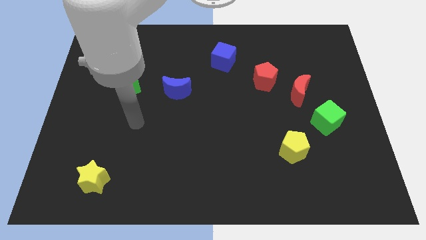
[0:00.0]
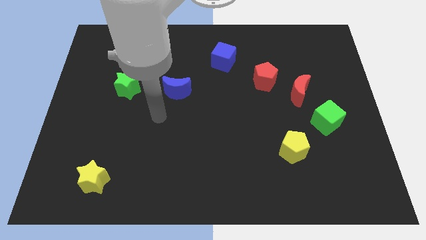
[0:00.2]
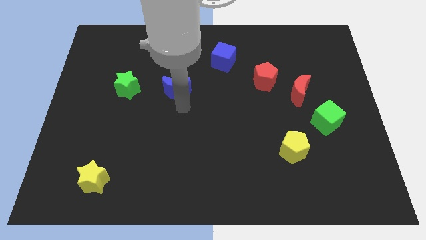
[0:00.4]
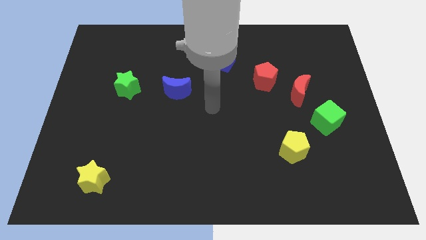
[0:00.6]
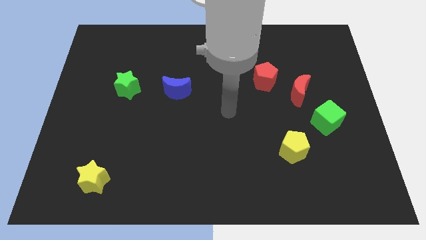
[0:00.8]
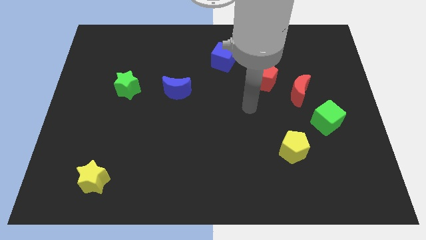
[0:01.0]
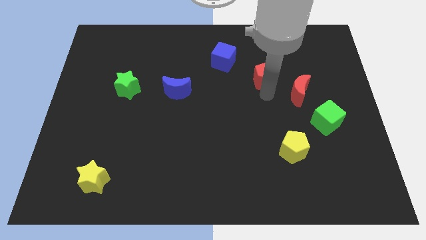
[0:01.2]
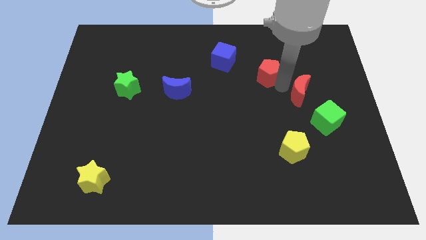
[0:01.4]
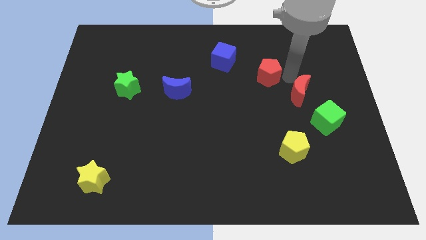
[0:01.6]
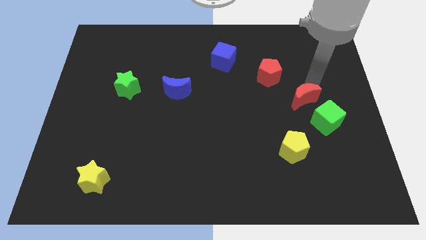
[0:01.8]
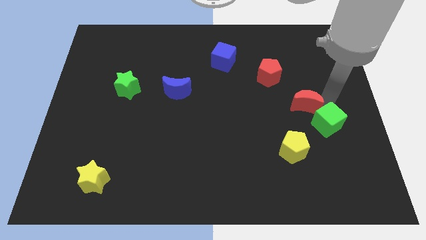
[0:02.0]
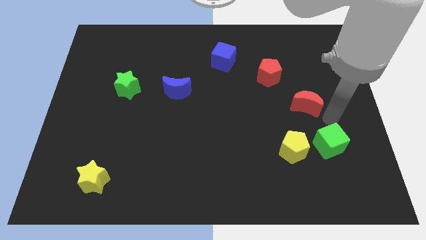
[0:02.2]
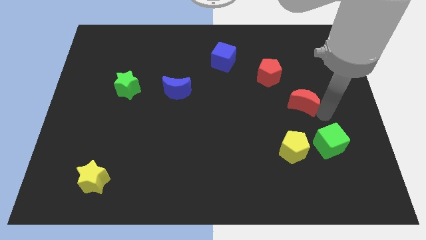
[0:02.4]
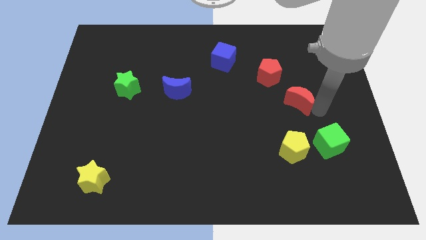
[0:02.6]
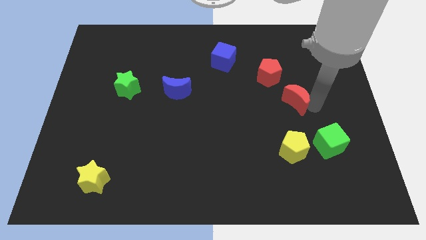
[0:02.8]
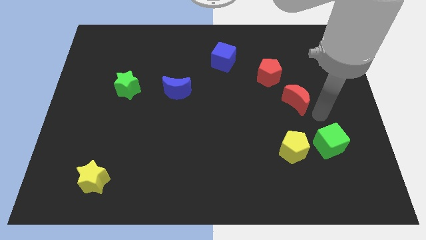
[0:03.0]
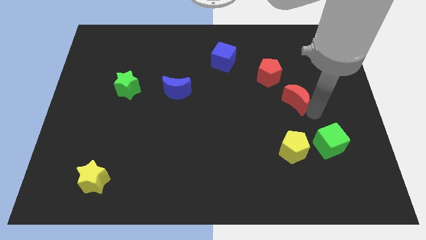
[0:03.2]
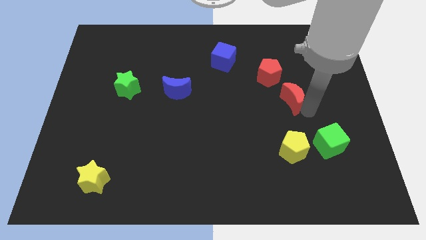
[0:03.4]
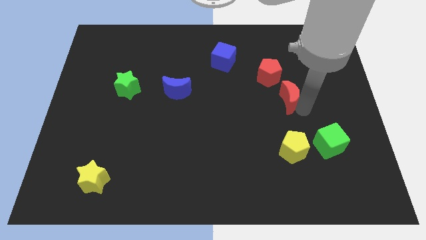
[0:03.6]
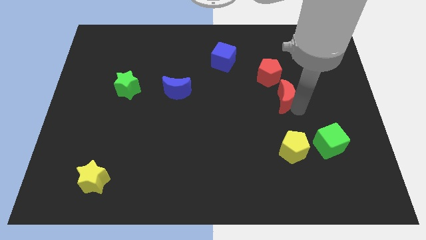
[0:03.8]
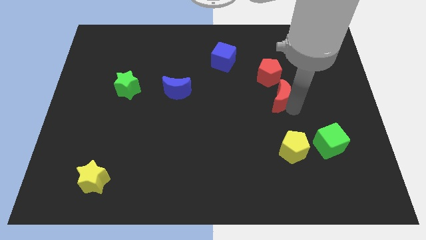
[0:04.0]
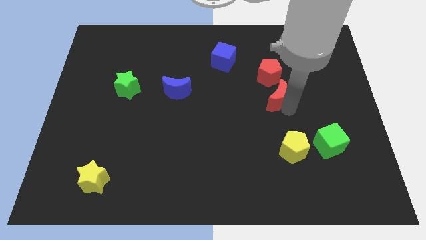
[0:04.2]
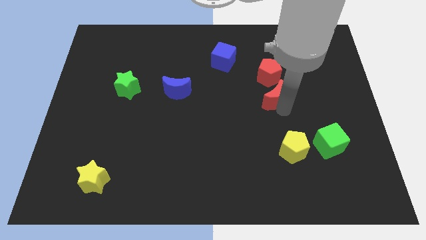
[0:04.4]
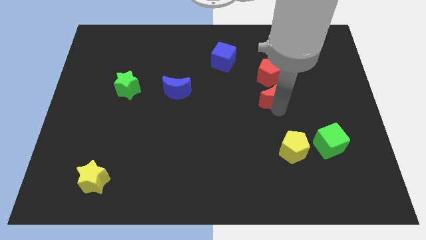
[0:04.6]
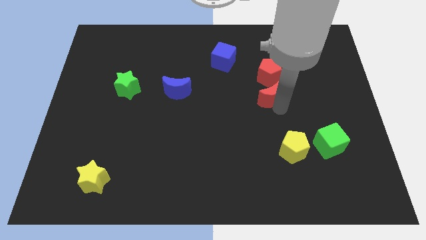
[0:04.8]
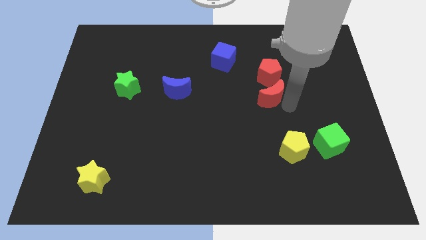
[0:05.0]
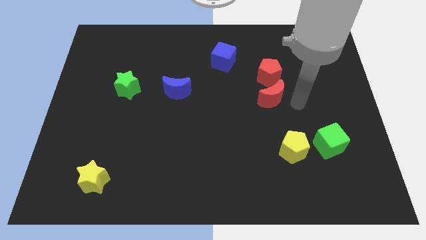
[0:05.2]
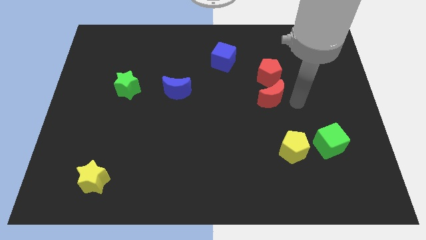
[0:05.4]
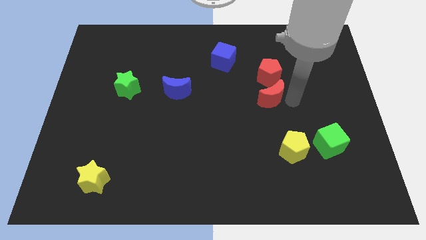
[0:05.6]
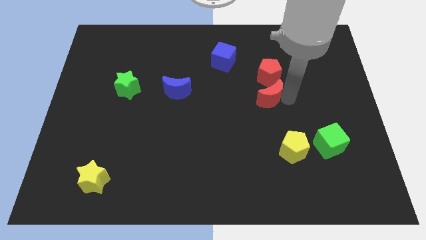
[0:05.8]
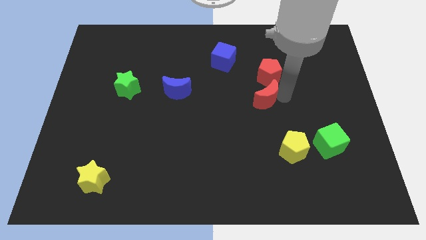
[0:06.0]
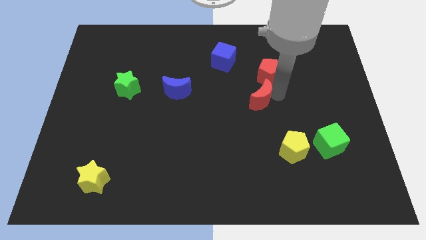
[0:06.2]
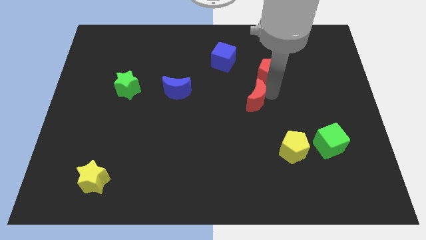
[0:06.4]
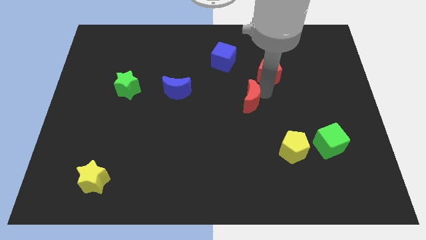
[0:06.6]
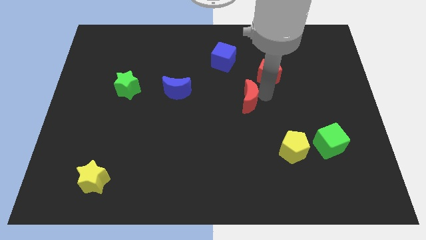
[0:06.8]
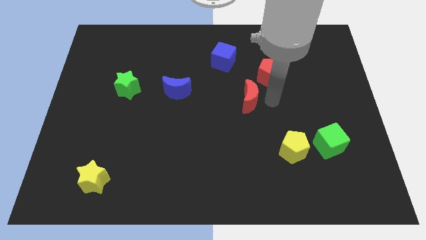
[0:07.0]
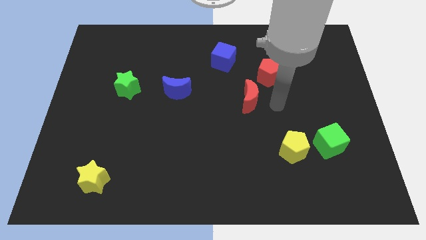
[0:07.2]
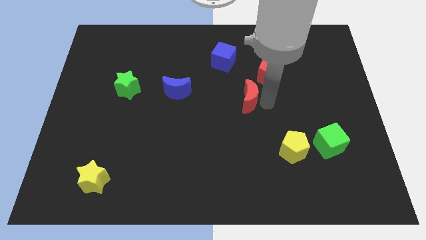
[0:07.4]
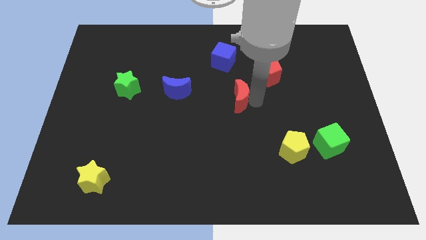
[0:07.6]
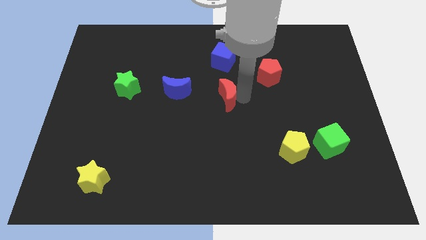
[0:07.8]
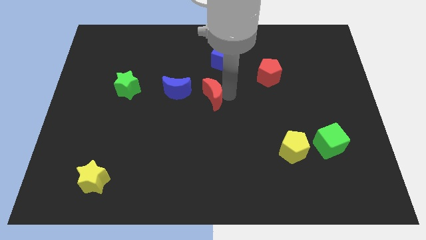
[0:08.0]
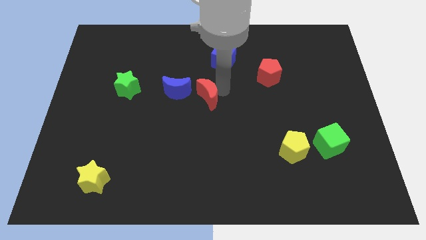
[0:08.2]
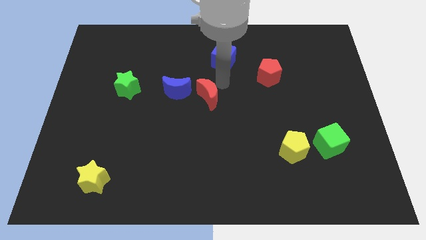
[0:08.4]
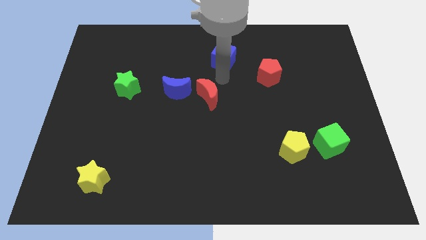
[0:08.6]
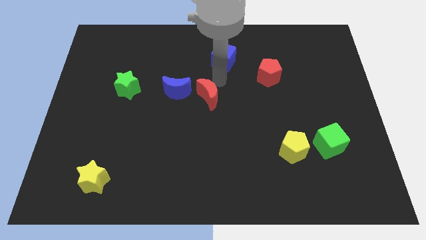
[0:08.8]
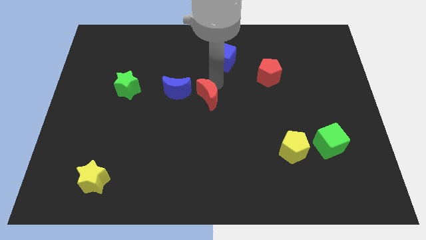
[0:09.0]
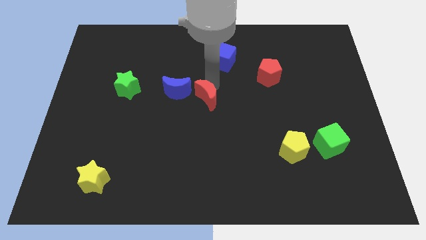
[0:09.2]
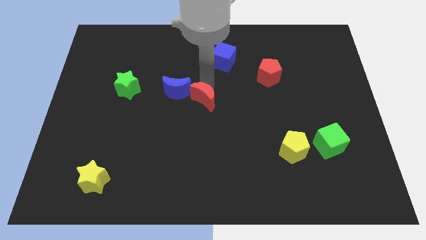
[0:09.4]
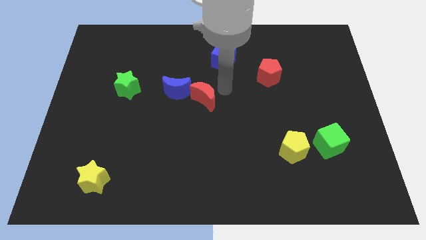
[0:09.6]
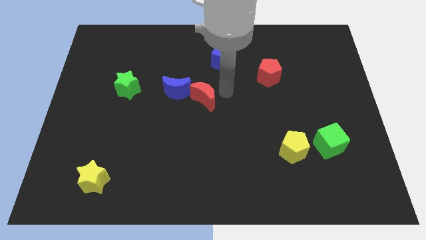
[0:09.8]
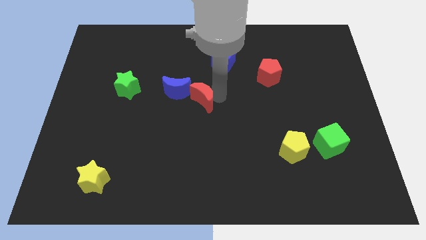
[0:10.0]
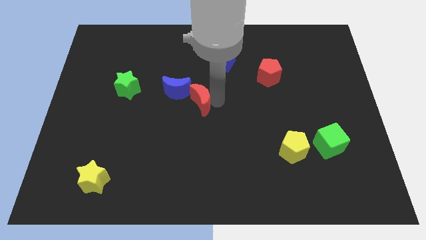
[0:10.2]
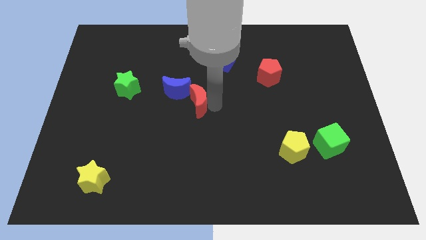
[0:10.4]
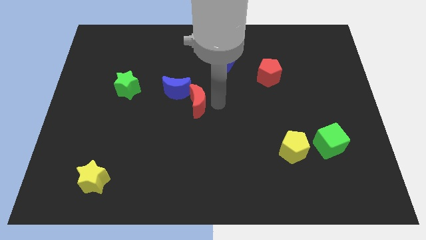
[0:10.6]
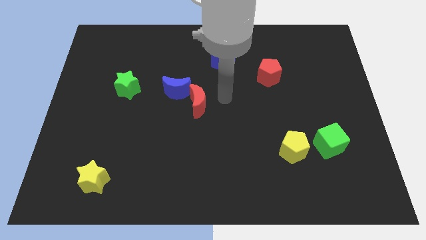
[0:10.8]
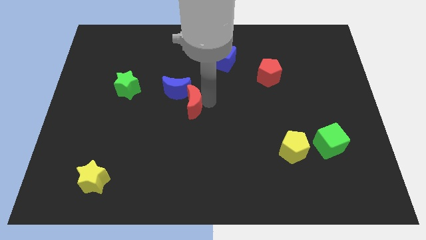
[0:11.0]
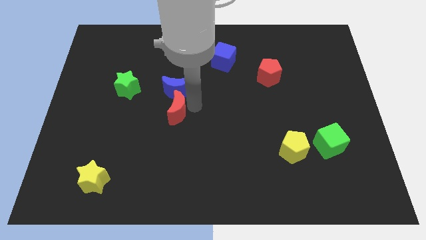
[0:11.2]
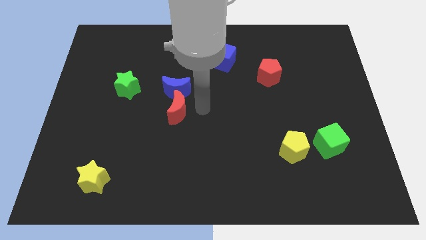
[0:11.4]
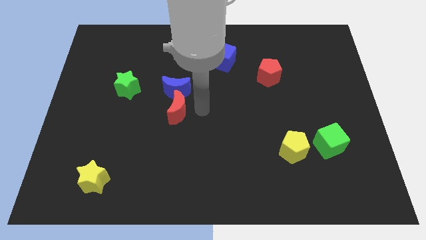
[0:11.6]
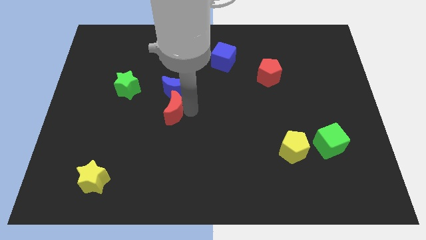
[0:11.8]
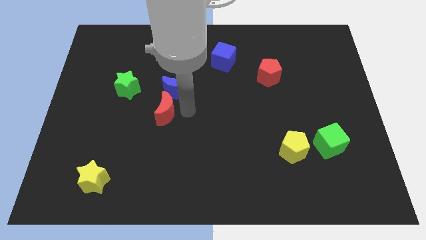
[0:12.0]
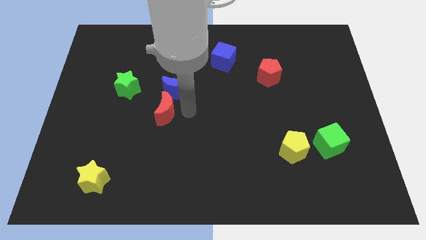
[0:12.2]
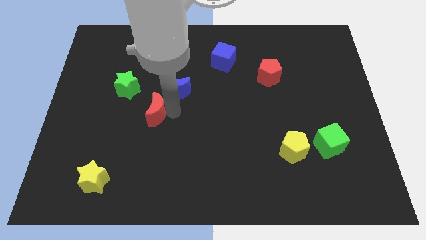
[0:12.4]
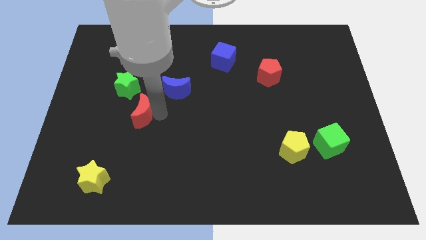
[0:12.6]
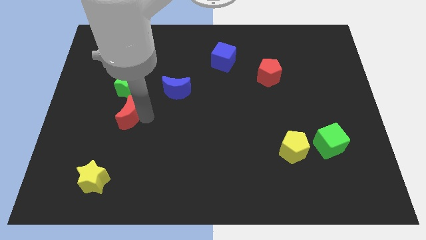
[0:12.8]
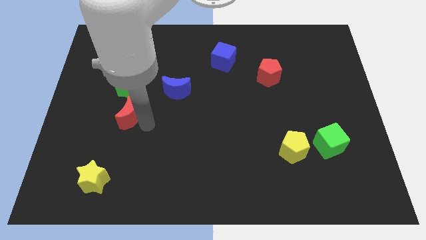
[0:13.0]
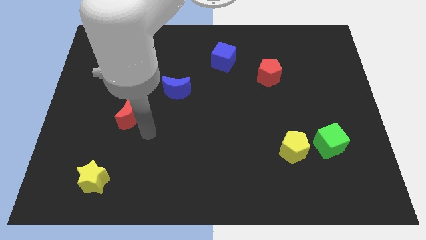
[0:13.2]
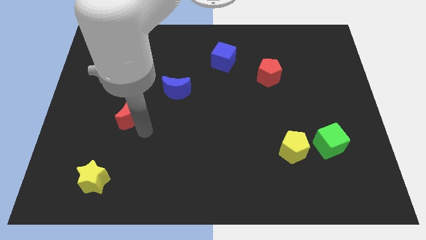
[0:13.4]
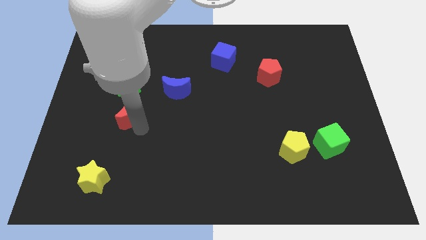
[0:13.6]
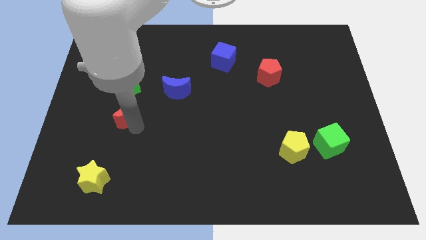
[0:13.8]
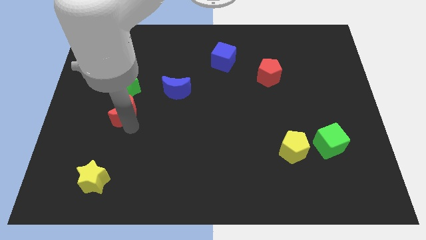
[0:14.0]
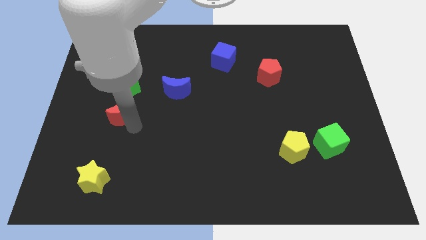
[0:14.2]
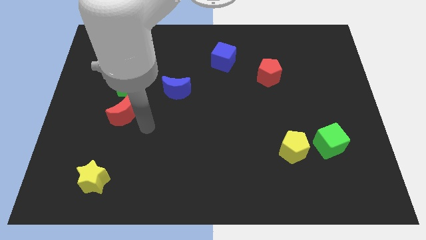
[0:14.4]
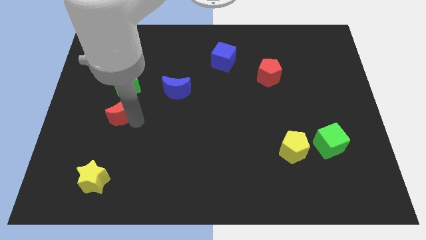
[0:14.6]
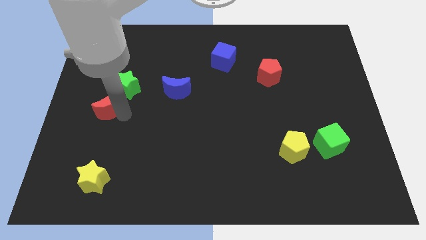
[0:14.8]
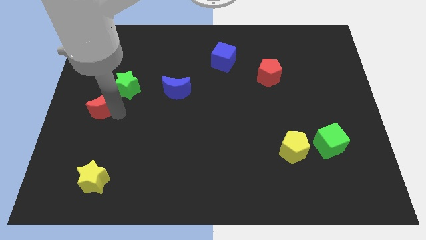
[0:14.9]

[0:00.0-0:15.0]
push the red moon to the left side

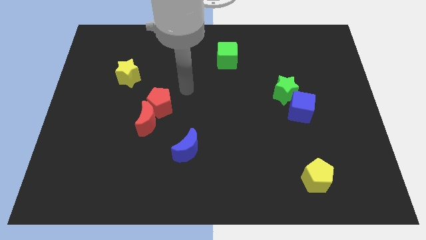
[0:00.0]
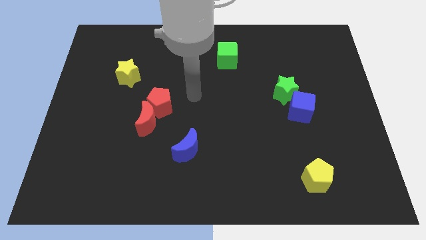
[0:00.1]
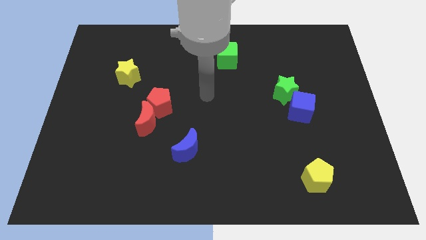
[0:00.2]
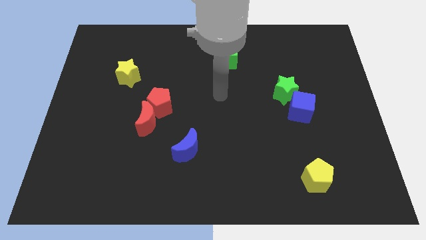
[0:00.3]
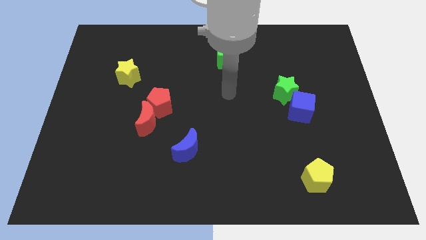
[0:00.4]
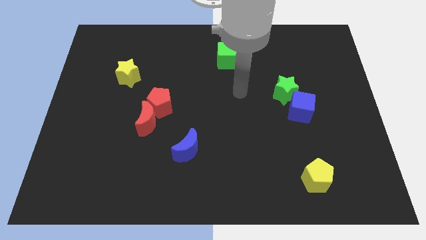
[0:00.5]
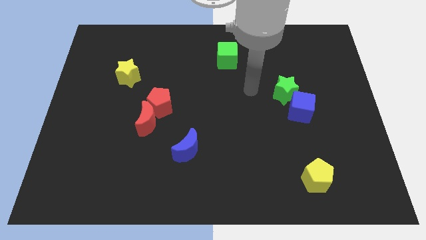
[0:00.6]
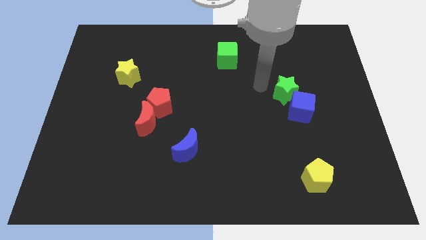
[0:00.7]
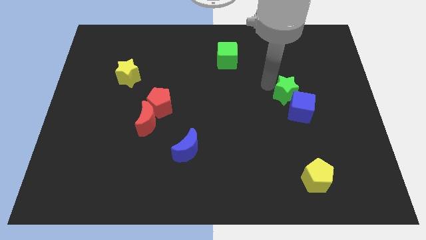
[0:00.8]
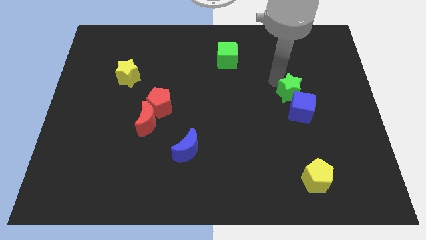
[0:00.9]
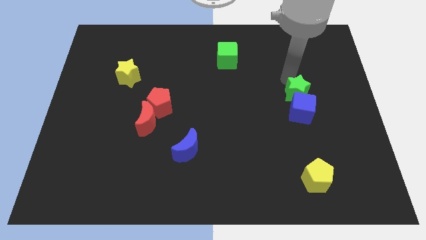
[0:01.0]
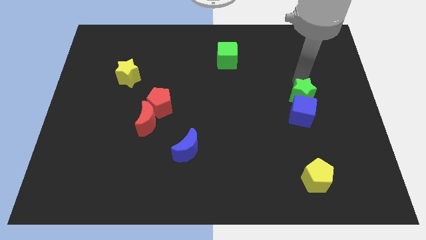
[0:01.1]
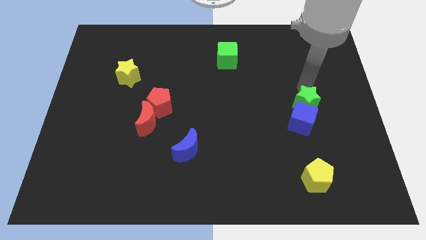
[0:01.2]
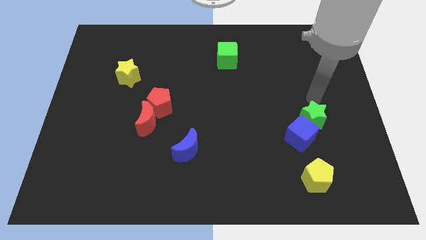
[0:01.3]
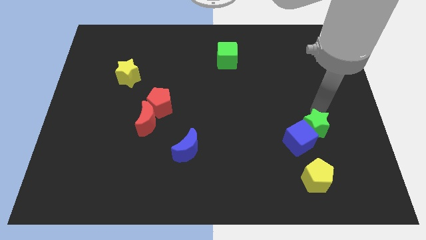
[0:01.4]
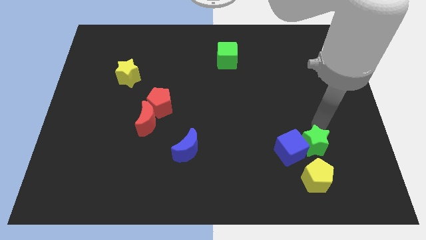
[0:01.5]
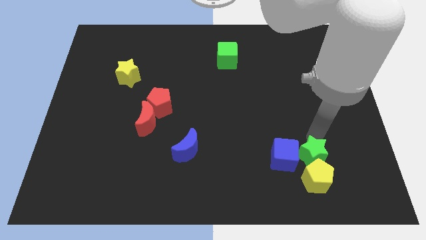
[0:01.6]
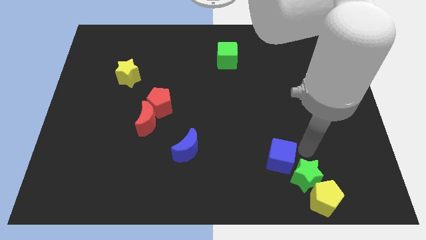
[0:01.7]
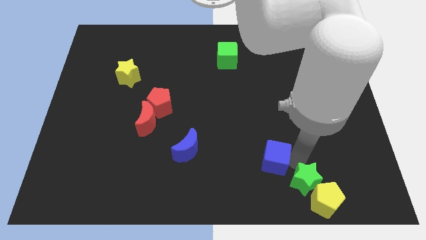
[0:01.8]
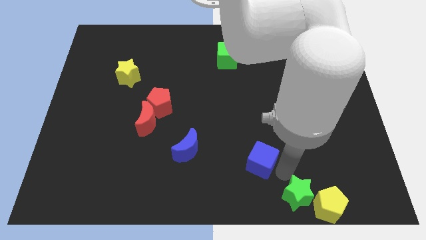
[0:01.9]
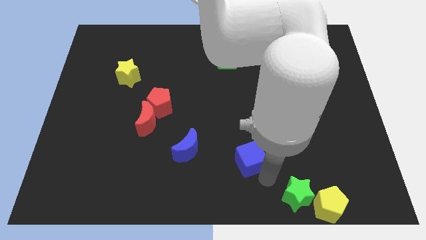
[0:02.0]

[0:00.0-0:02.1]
slide the blue cube to the bottom
